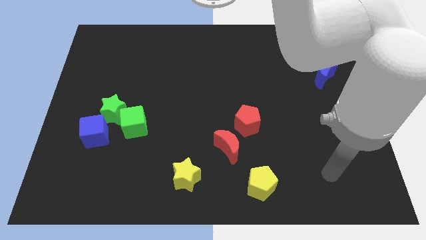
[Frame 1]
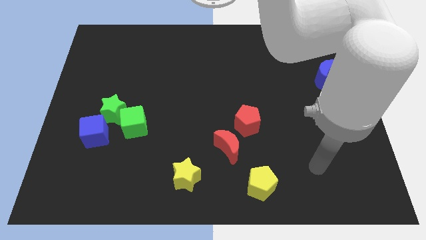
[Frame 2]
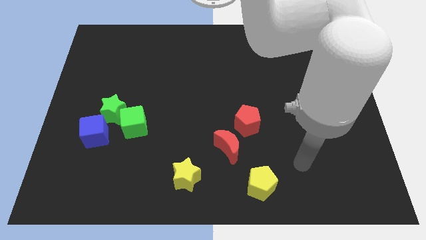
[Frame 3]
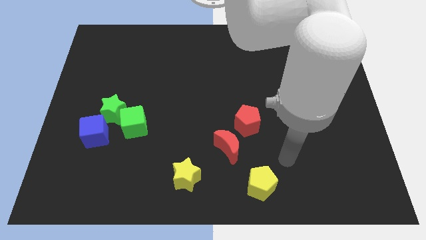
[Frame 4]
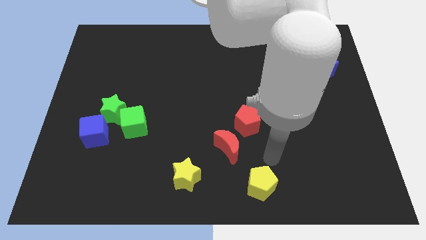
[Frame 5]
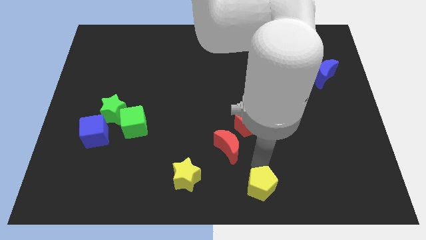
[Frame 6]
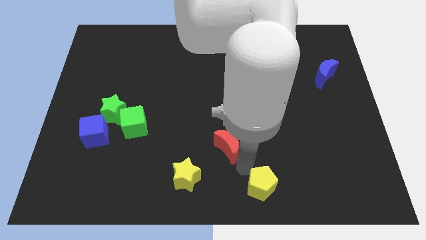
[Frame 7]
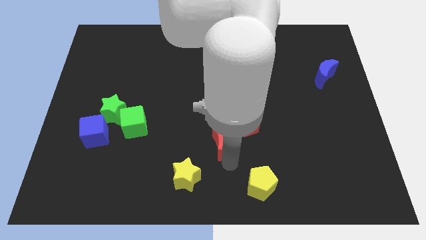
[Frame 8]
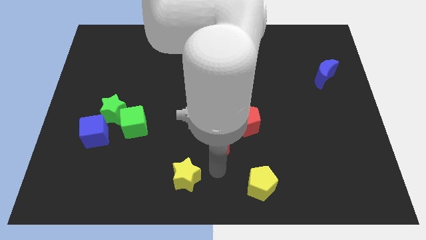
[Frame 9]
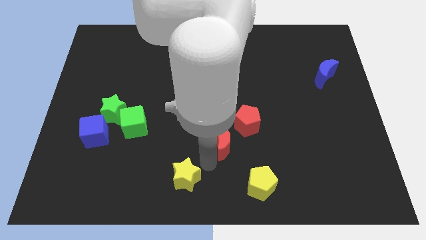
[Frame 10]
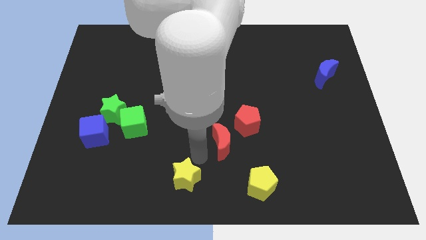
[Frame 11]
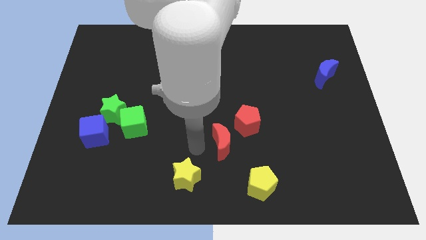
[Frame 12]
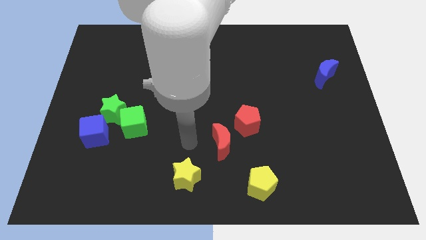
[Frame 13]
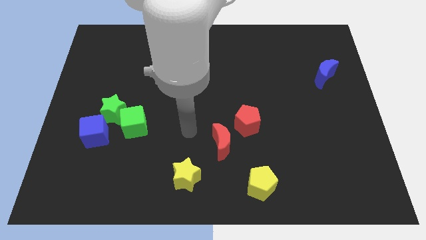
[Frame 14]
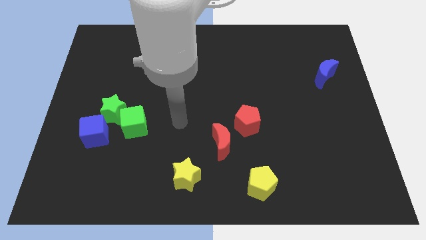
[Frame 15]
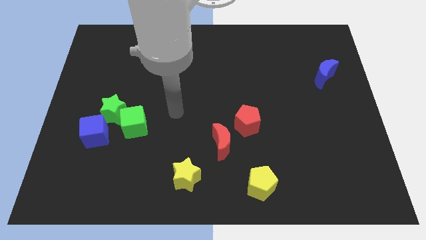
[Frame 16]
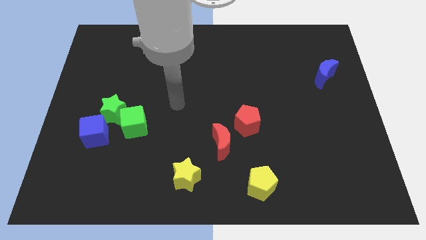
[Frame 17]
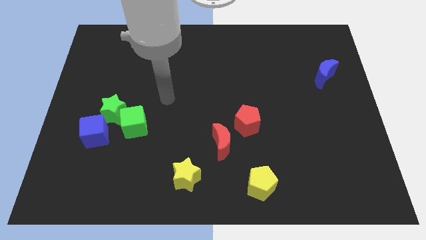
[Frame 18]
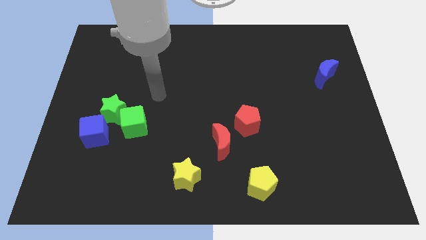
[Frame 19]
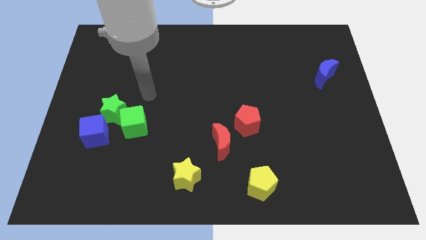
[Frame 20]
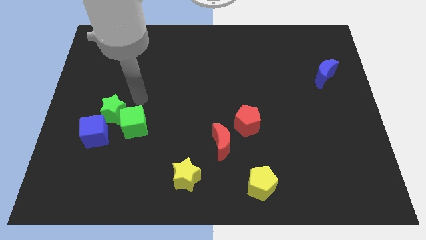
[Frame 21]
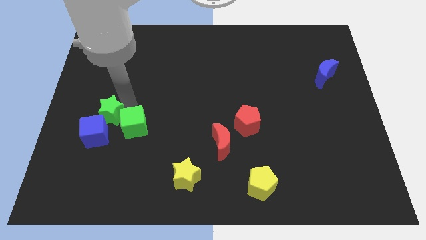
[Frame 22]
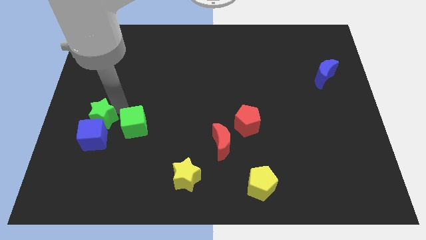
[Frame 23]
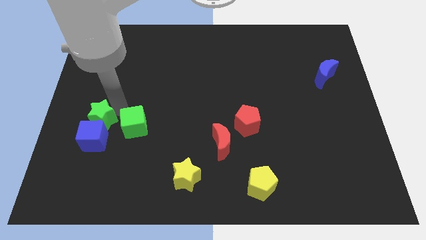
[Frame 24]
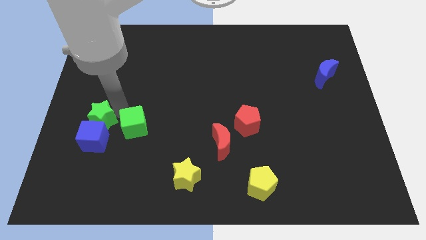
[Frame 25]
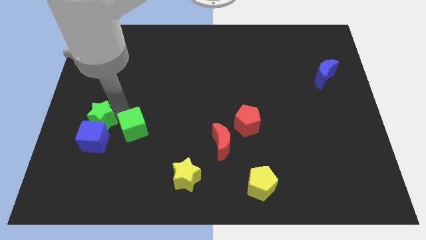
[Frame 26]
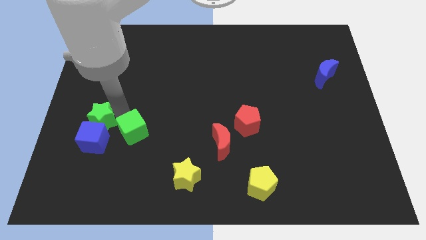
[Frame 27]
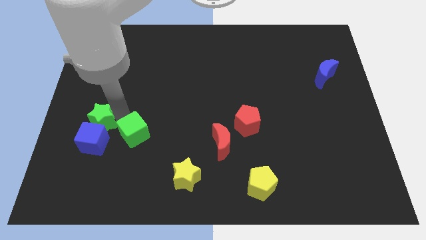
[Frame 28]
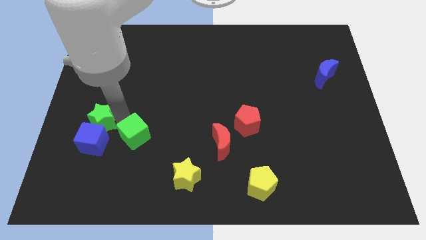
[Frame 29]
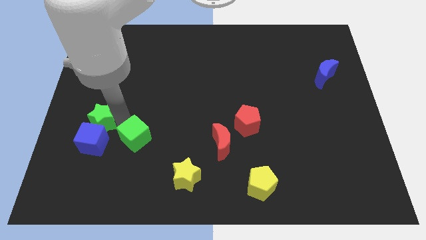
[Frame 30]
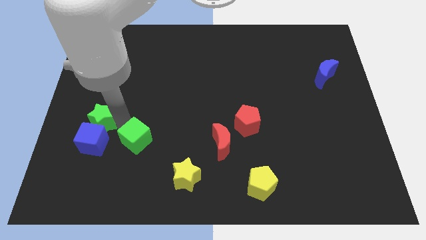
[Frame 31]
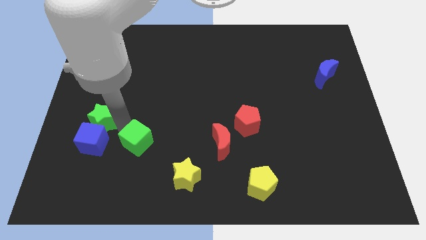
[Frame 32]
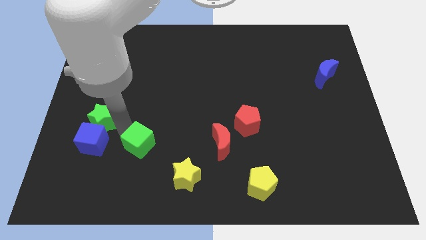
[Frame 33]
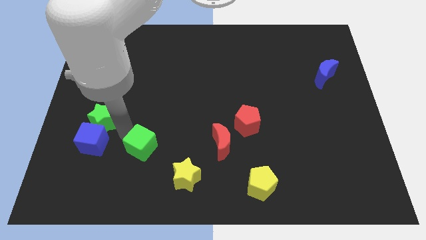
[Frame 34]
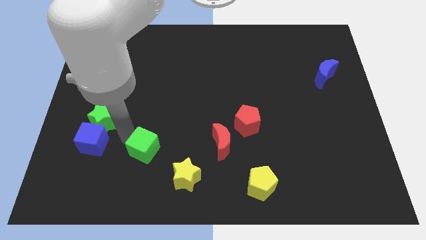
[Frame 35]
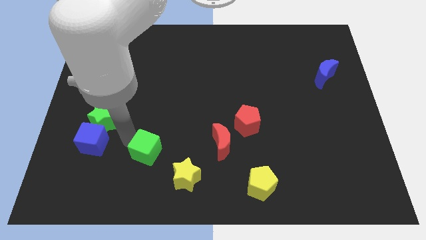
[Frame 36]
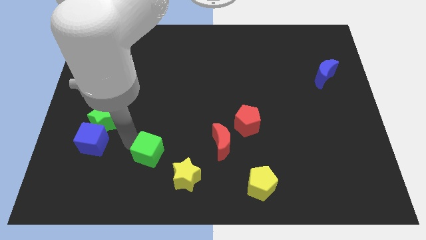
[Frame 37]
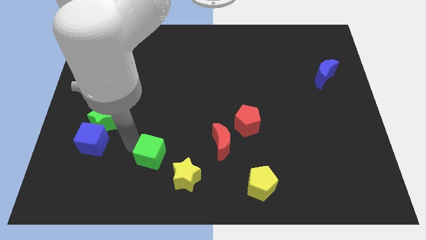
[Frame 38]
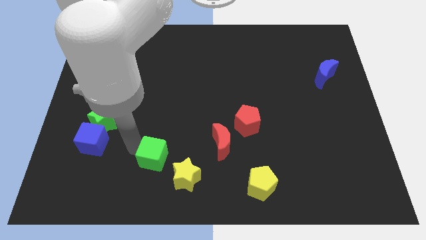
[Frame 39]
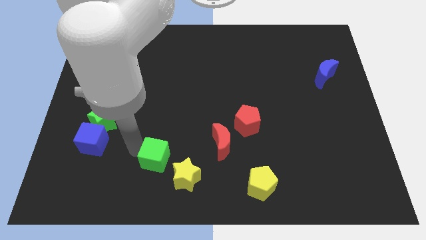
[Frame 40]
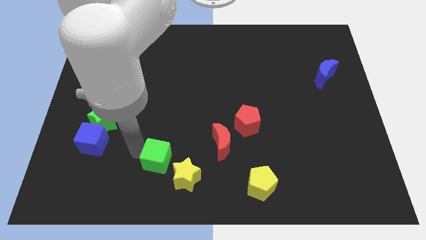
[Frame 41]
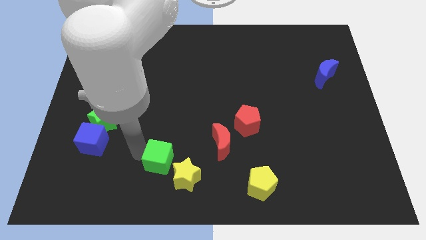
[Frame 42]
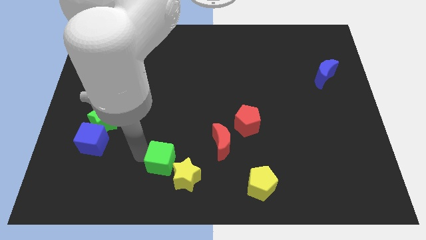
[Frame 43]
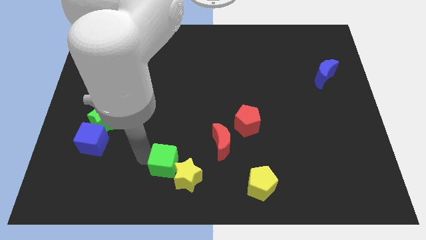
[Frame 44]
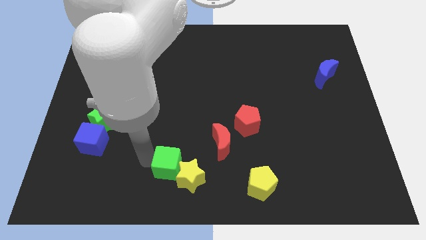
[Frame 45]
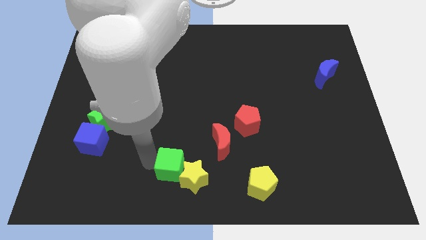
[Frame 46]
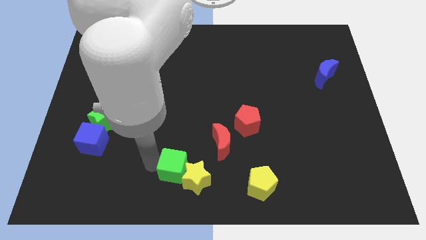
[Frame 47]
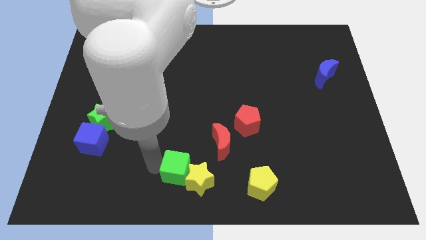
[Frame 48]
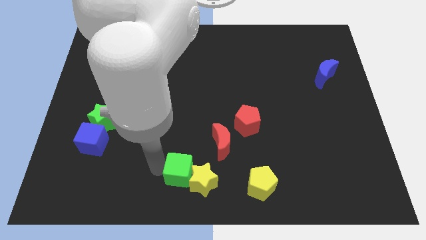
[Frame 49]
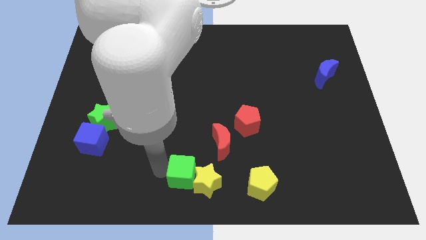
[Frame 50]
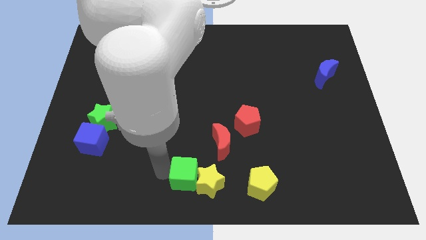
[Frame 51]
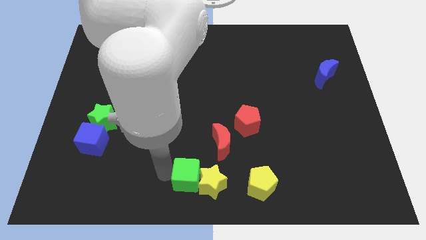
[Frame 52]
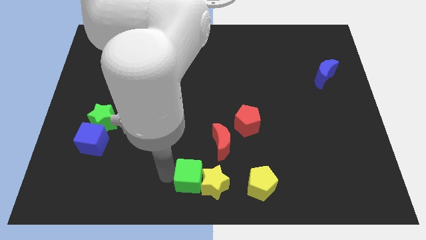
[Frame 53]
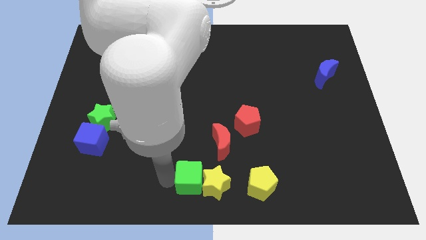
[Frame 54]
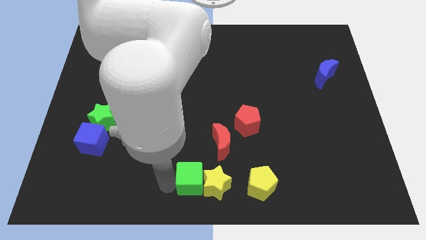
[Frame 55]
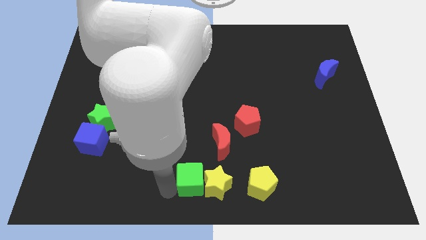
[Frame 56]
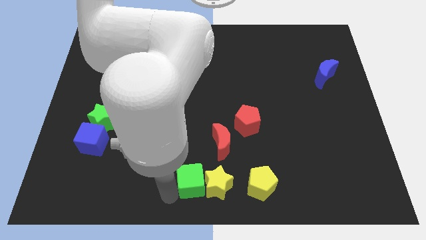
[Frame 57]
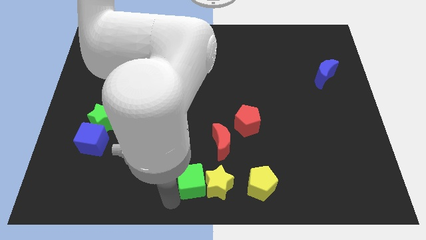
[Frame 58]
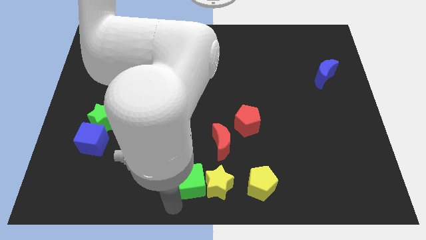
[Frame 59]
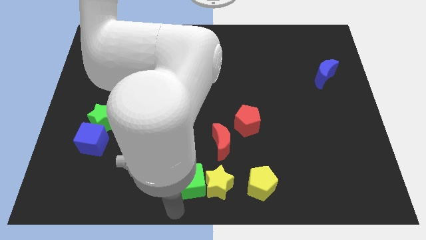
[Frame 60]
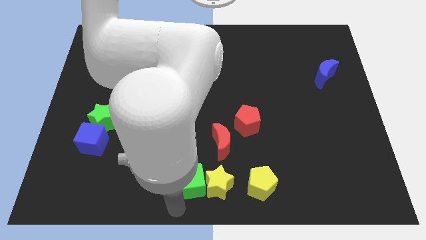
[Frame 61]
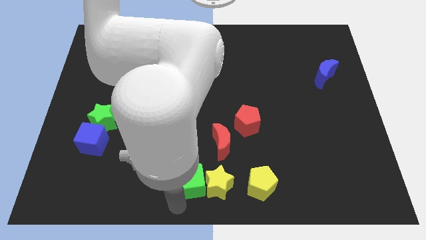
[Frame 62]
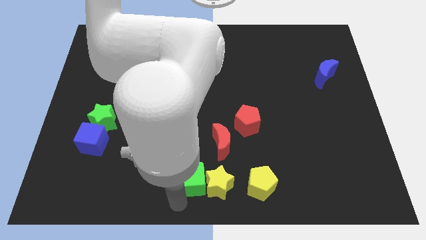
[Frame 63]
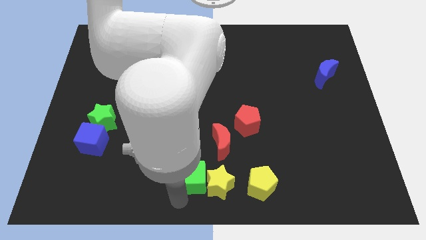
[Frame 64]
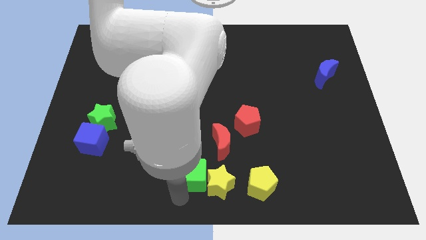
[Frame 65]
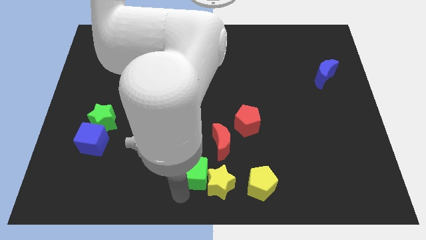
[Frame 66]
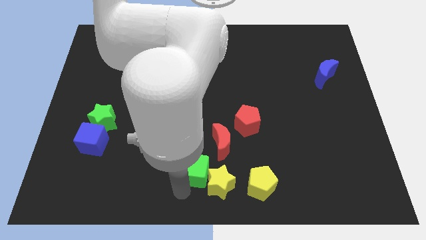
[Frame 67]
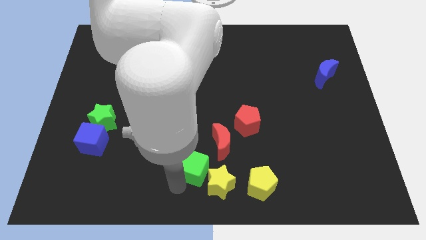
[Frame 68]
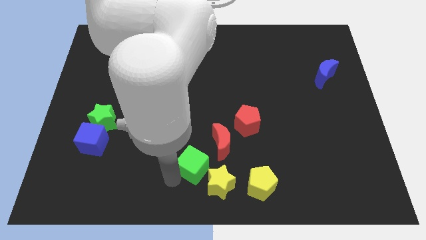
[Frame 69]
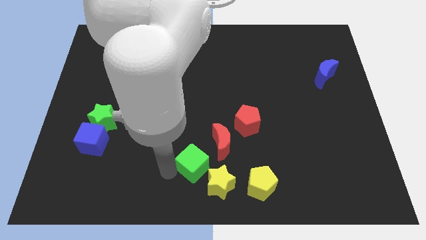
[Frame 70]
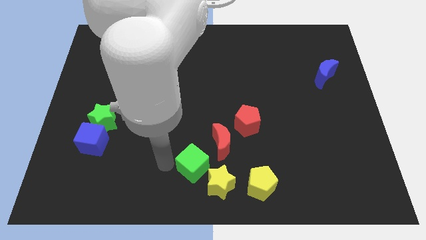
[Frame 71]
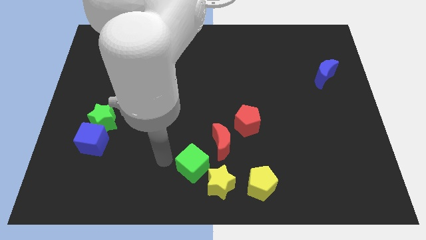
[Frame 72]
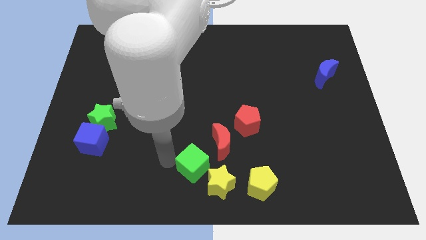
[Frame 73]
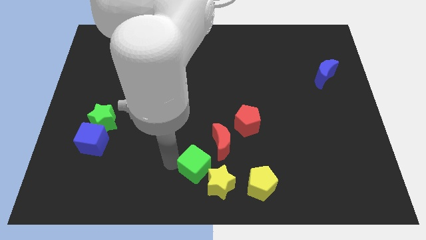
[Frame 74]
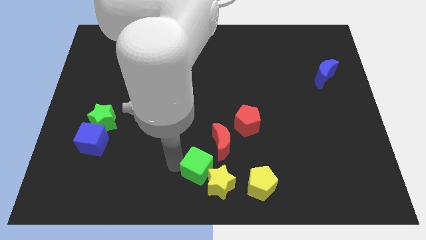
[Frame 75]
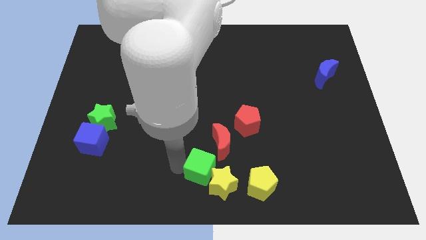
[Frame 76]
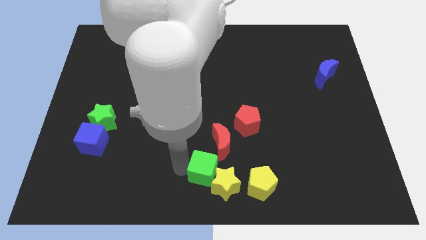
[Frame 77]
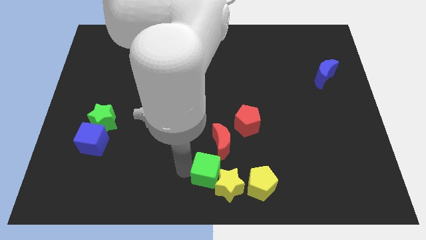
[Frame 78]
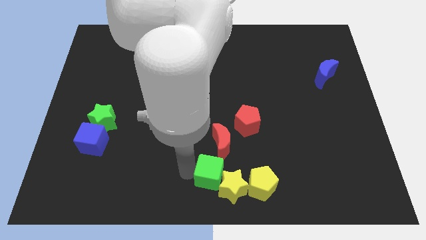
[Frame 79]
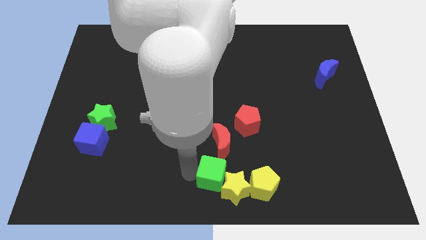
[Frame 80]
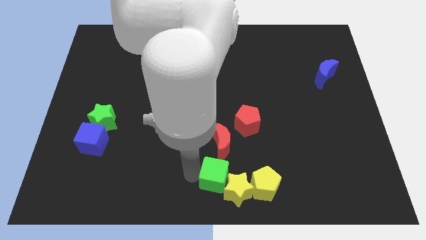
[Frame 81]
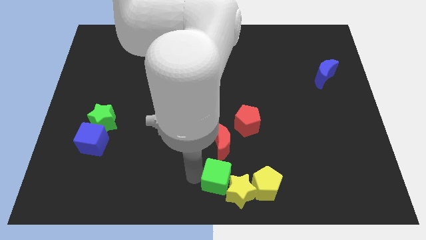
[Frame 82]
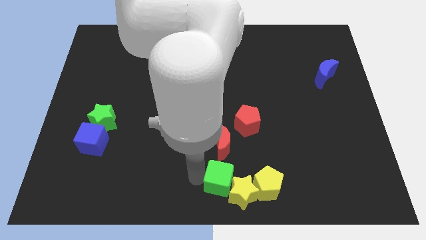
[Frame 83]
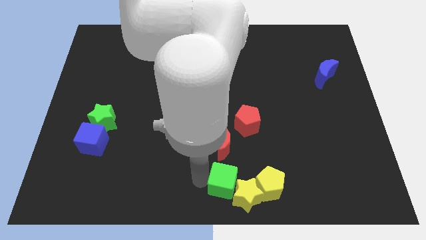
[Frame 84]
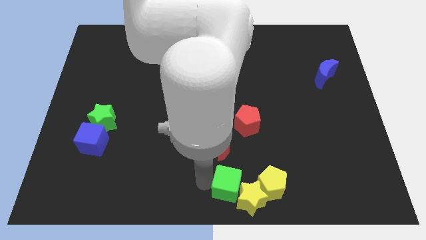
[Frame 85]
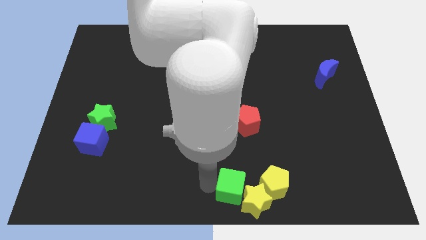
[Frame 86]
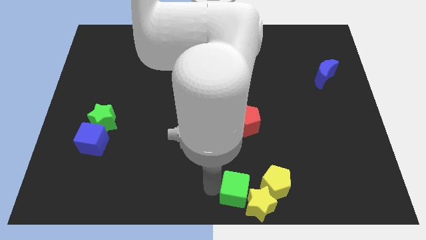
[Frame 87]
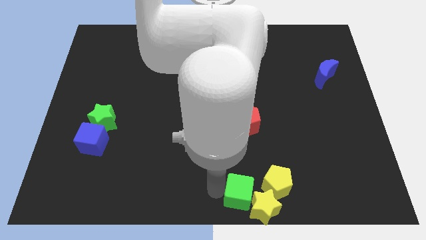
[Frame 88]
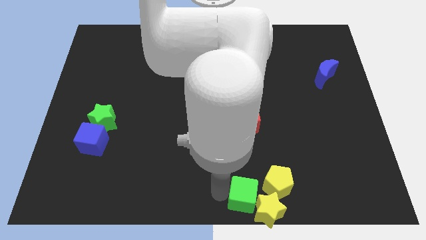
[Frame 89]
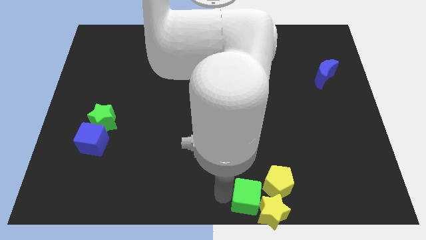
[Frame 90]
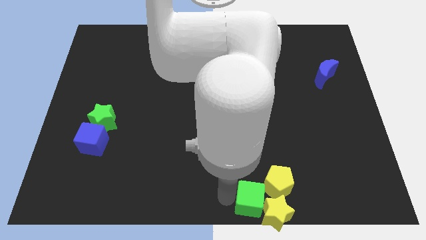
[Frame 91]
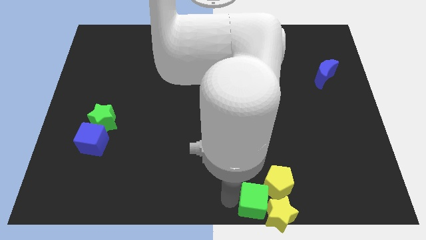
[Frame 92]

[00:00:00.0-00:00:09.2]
slide the green cube close to the yellow pentagon
